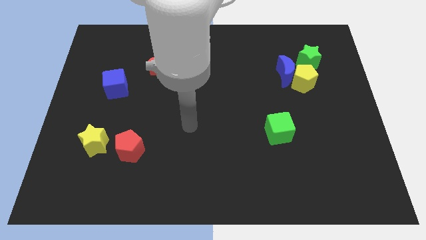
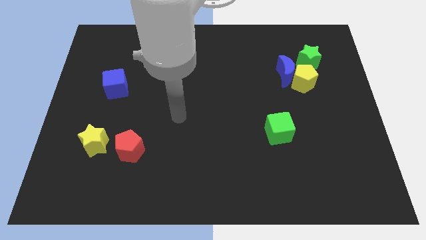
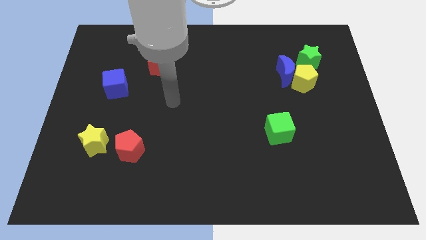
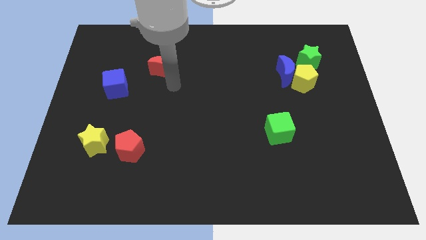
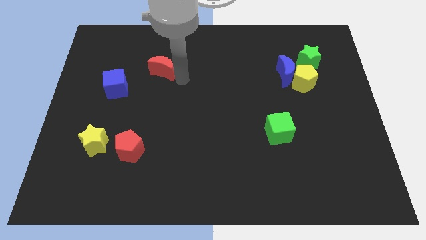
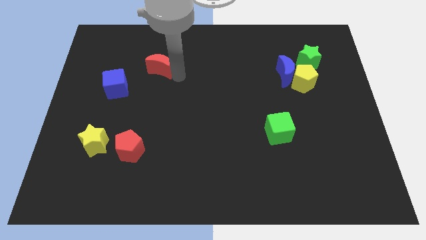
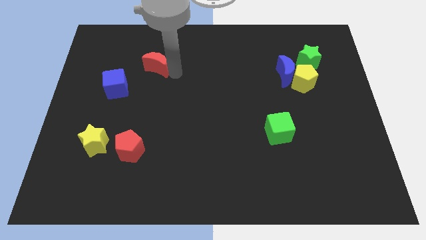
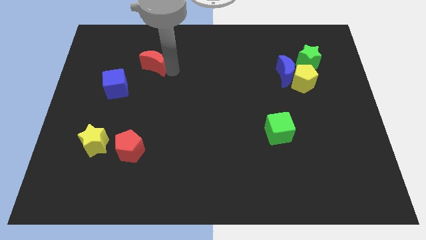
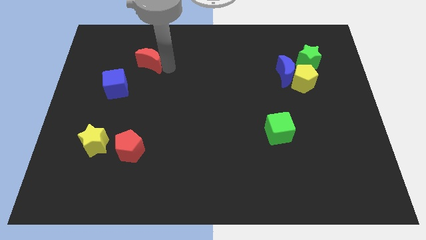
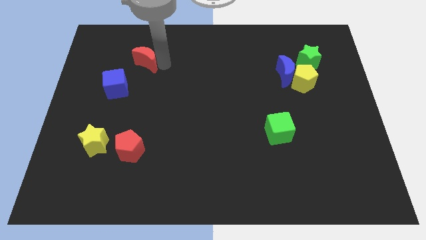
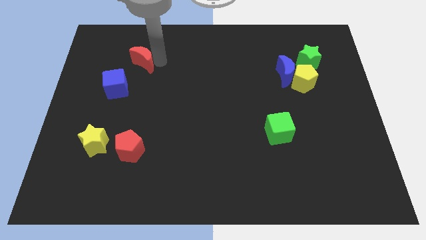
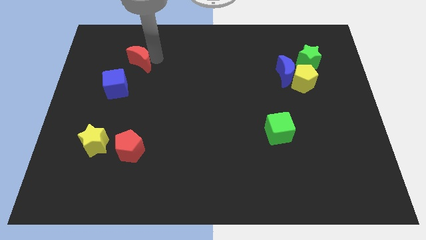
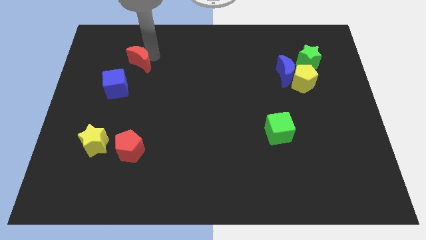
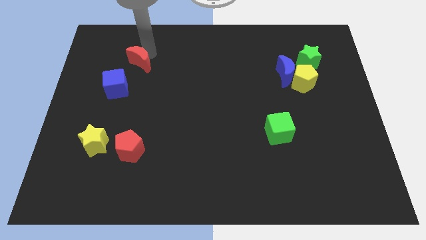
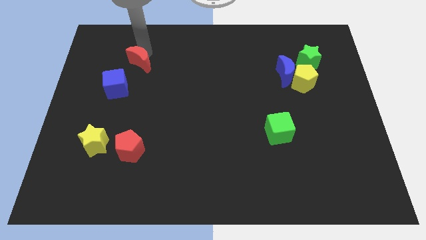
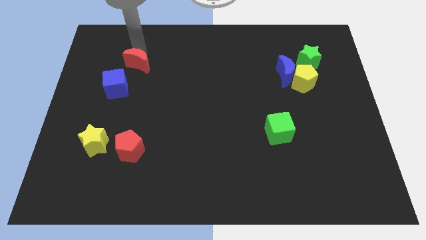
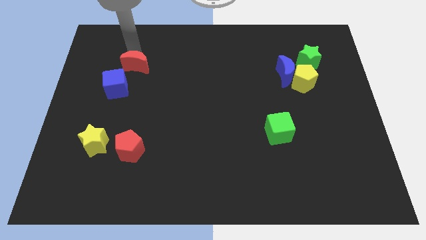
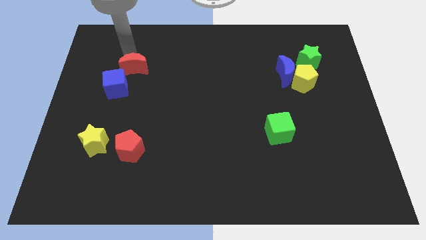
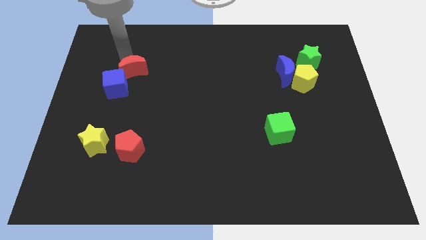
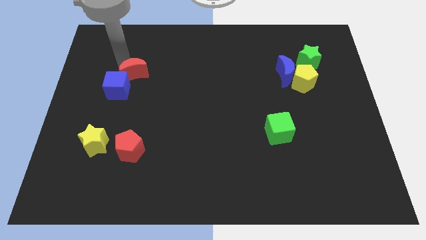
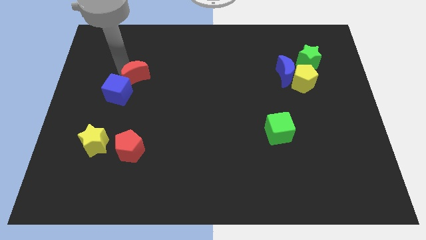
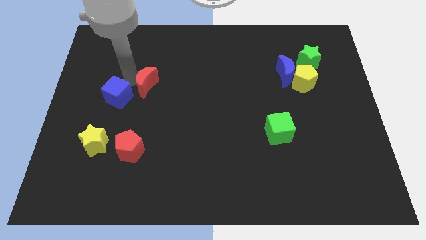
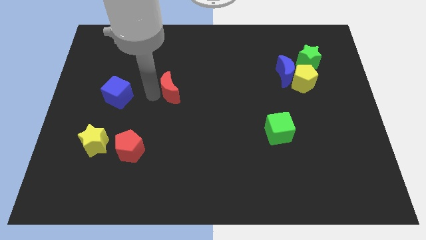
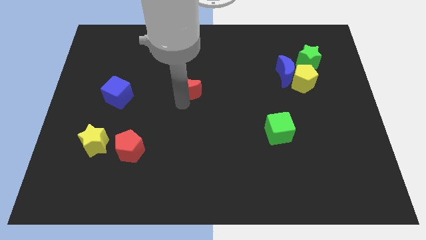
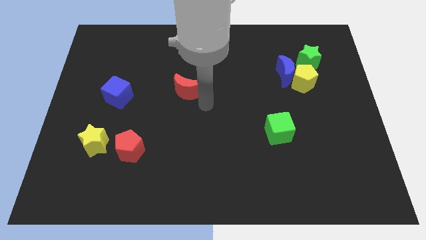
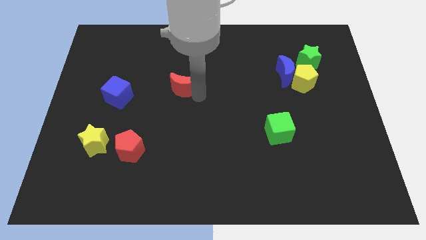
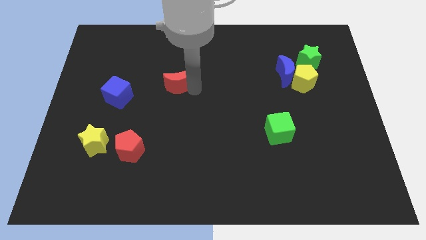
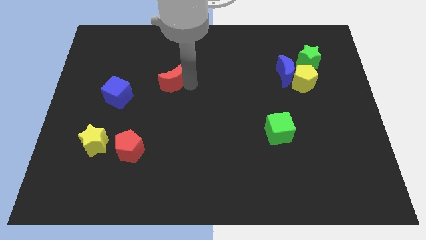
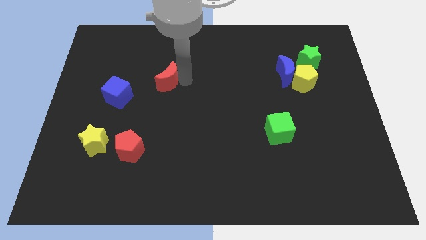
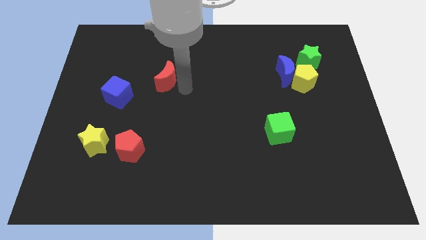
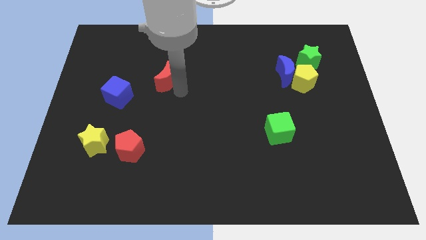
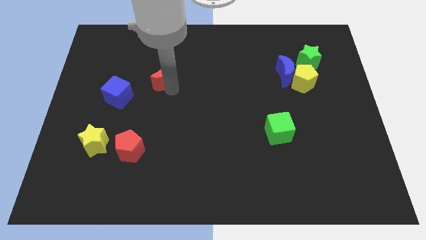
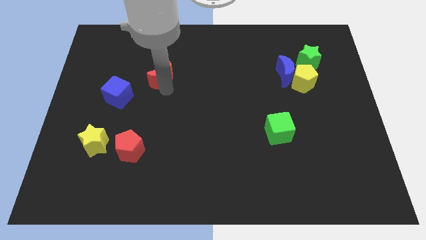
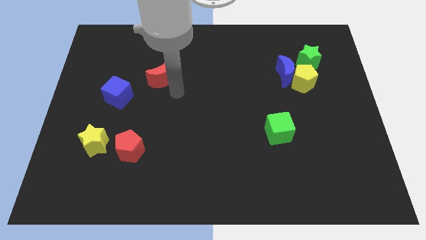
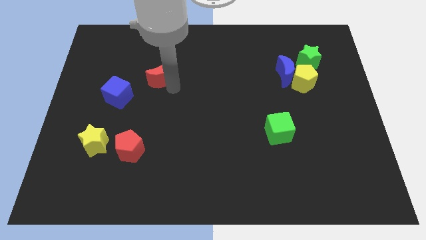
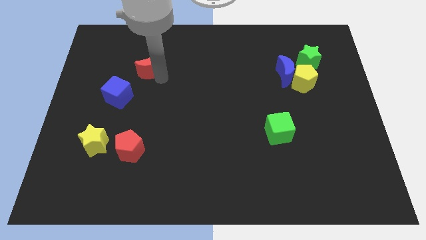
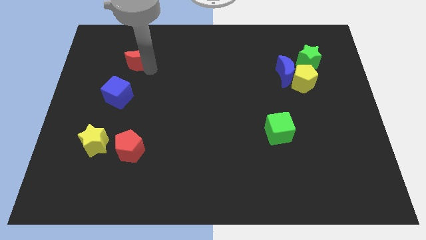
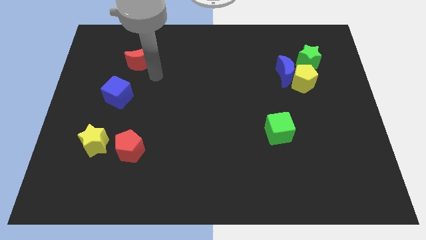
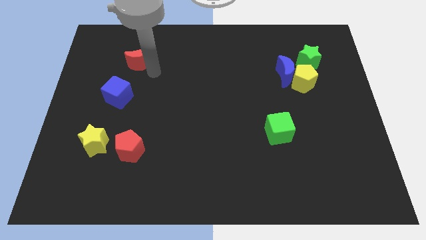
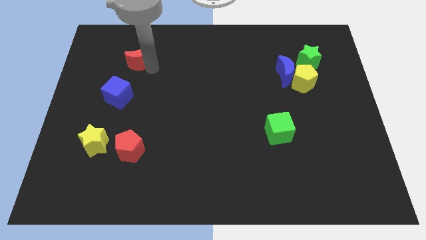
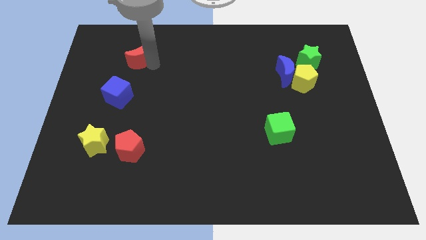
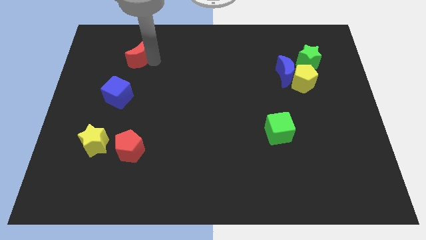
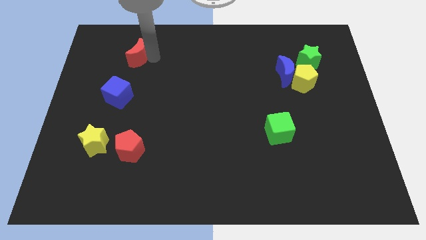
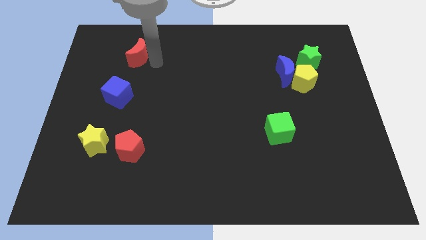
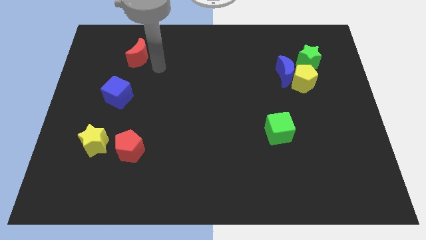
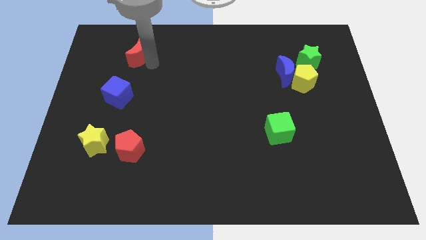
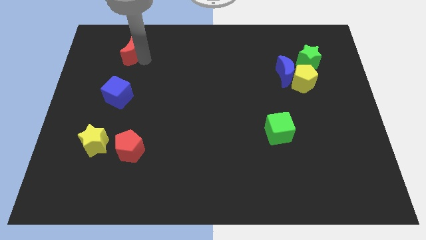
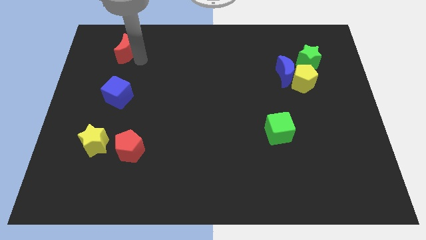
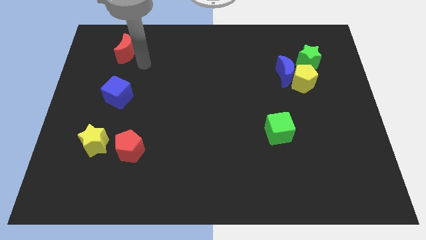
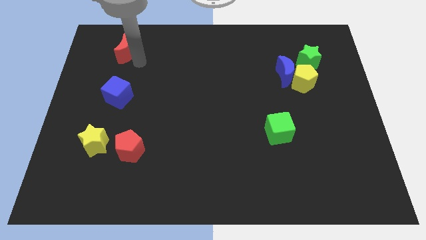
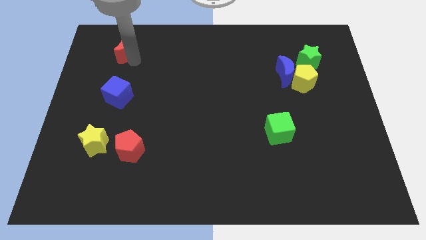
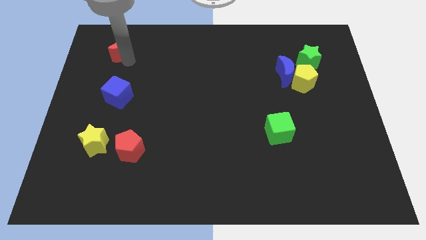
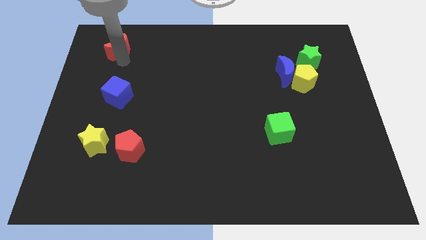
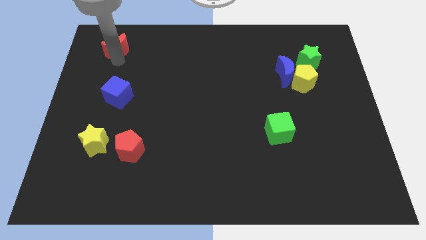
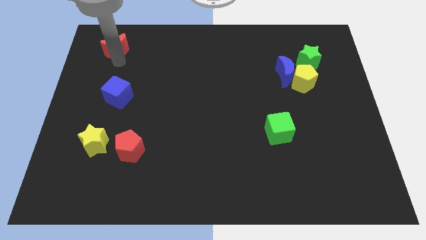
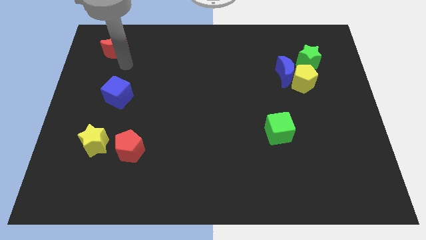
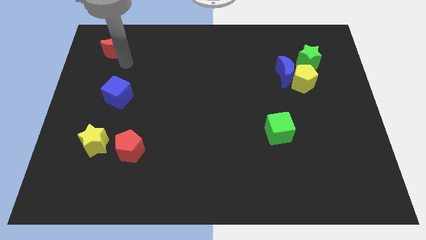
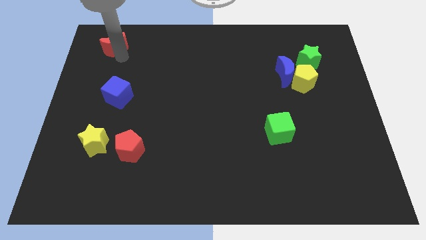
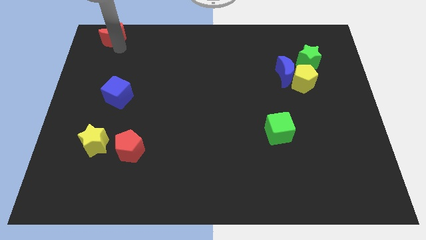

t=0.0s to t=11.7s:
slide the red moon to the top left
